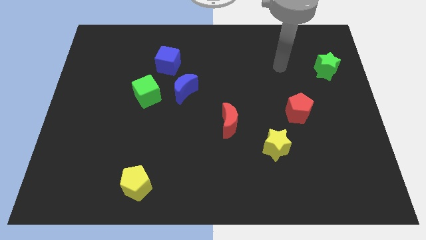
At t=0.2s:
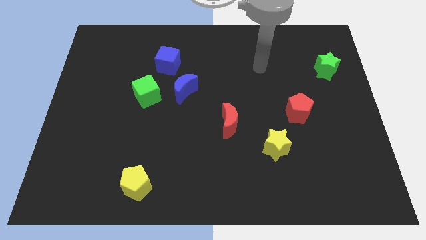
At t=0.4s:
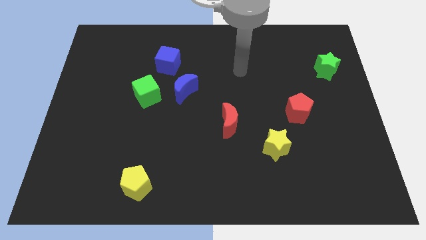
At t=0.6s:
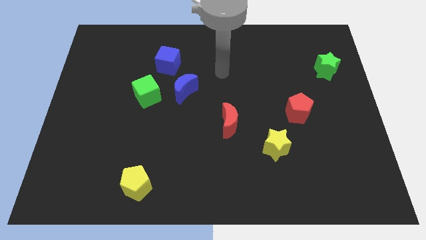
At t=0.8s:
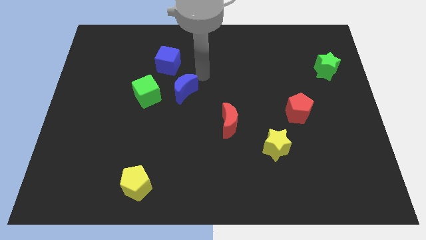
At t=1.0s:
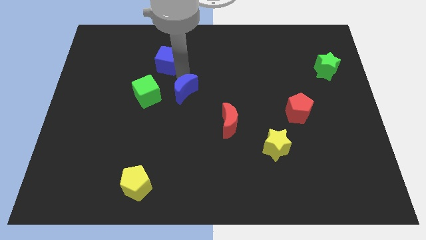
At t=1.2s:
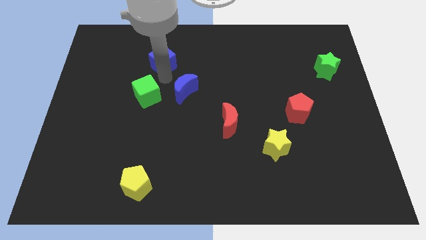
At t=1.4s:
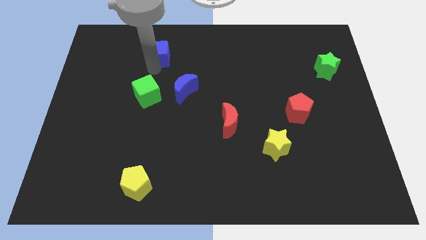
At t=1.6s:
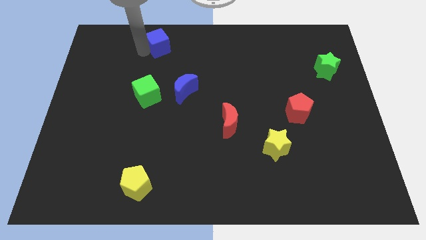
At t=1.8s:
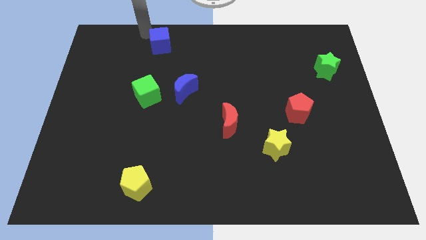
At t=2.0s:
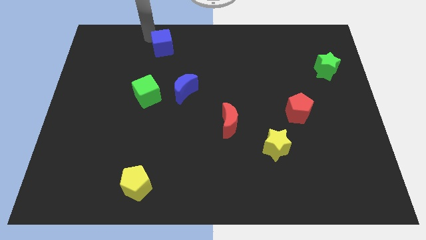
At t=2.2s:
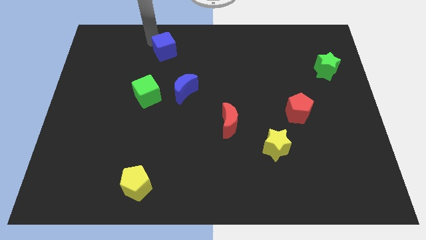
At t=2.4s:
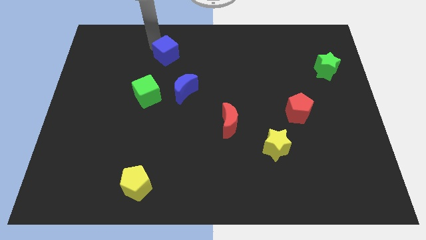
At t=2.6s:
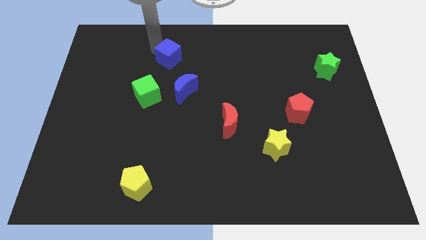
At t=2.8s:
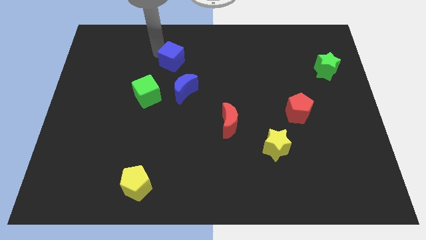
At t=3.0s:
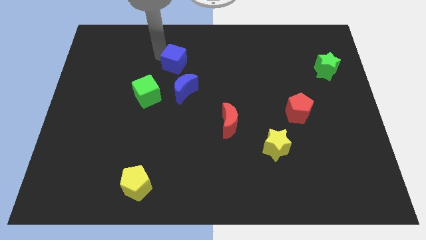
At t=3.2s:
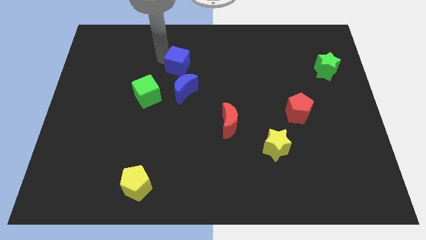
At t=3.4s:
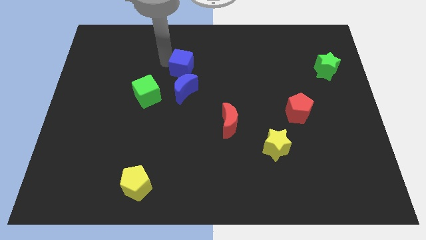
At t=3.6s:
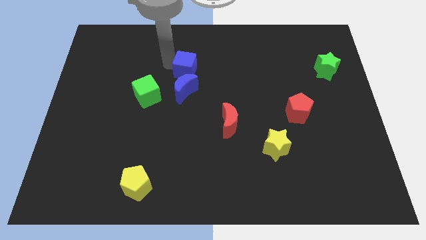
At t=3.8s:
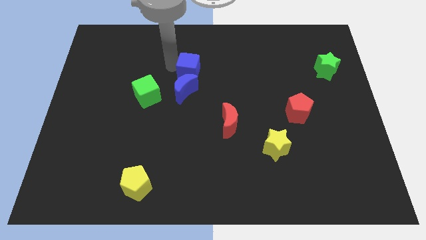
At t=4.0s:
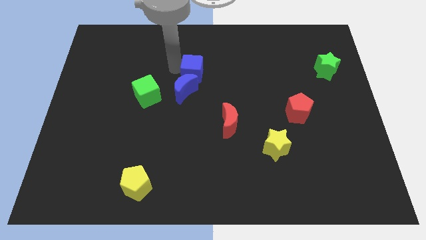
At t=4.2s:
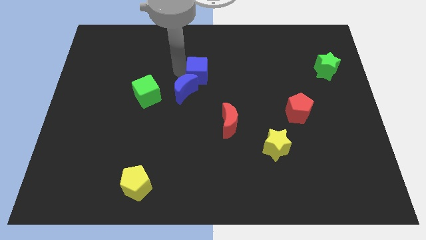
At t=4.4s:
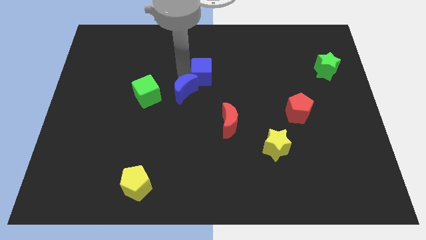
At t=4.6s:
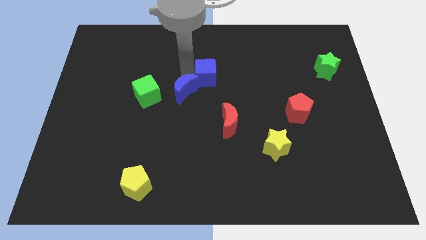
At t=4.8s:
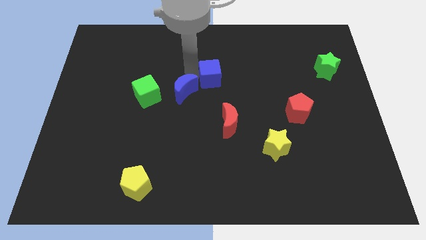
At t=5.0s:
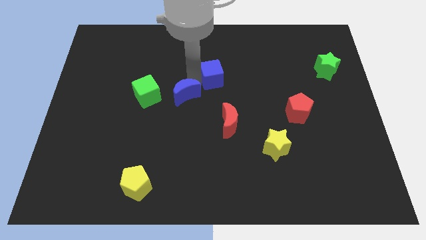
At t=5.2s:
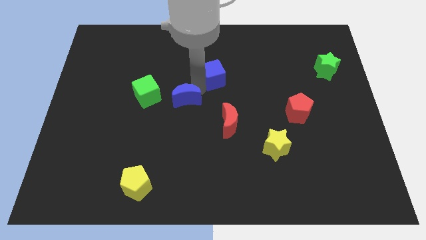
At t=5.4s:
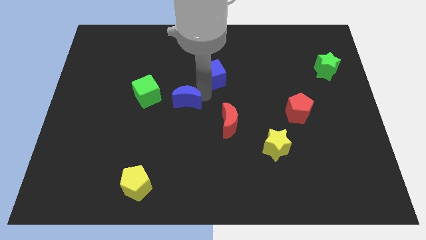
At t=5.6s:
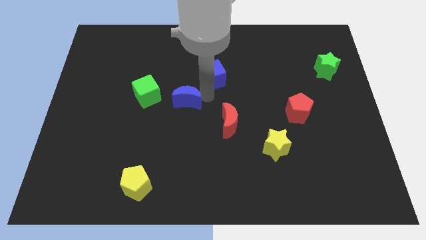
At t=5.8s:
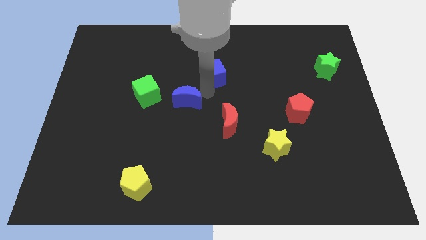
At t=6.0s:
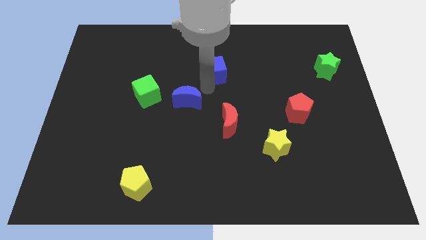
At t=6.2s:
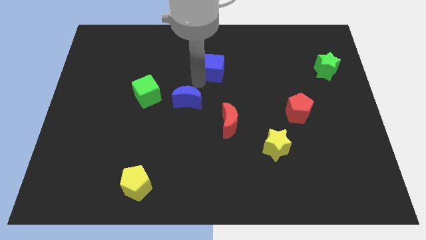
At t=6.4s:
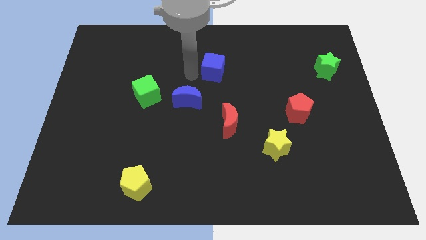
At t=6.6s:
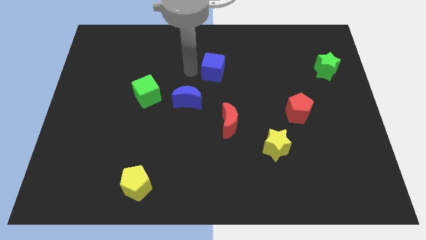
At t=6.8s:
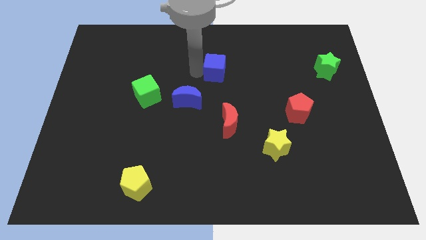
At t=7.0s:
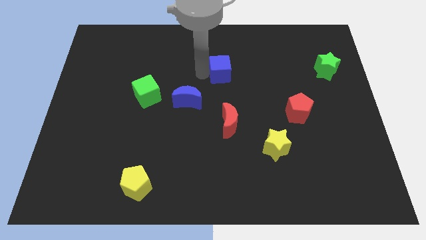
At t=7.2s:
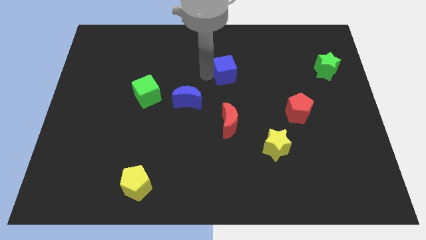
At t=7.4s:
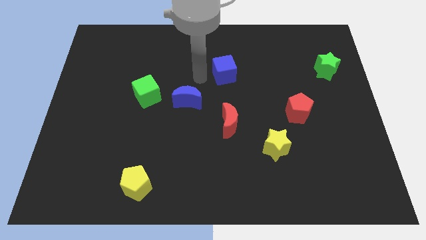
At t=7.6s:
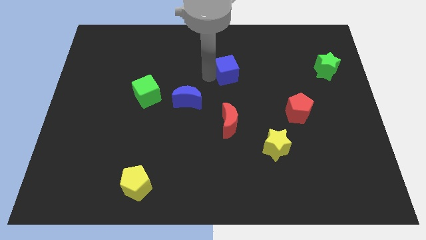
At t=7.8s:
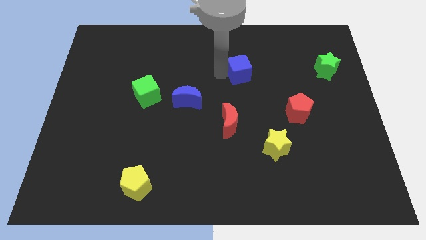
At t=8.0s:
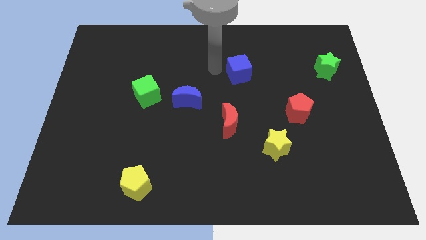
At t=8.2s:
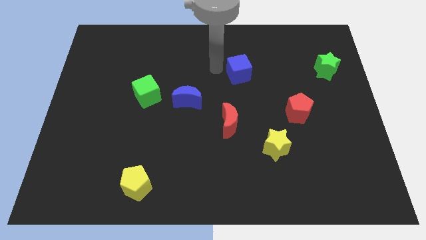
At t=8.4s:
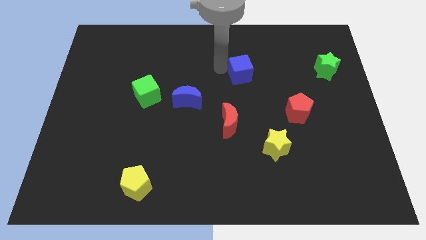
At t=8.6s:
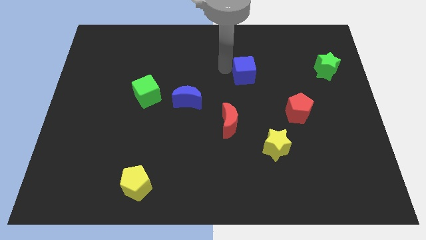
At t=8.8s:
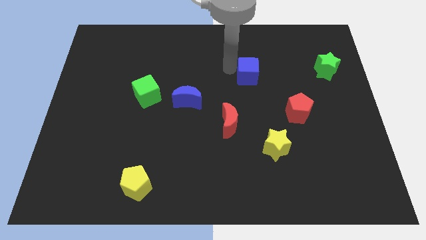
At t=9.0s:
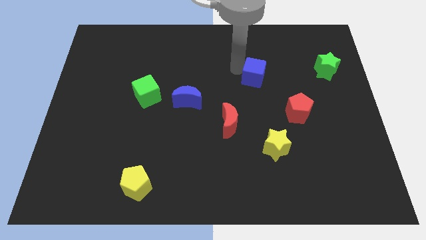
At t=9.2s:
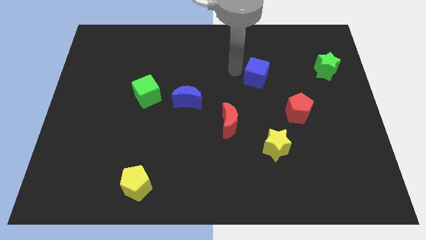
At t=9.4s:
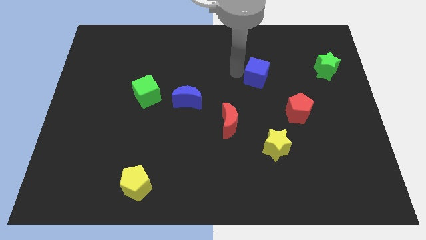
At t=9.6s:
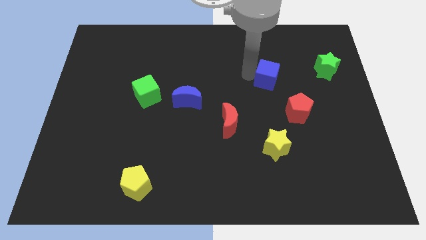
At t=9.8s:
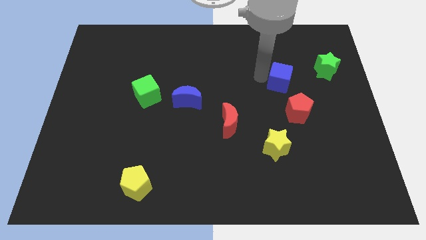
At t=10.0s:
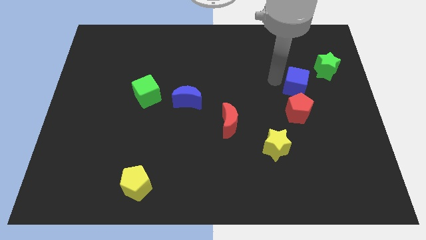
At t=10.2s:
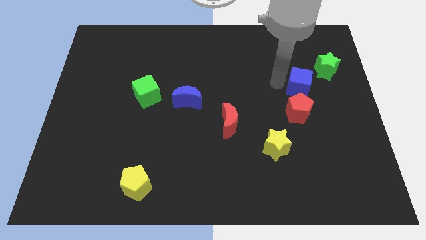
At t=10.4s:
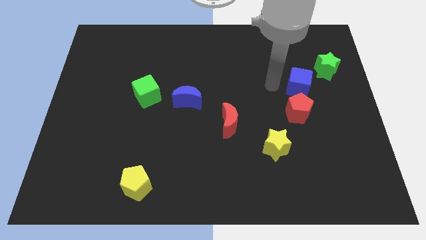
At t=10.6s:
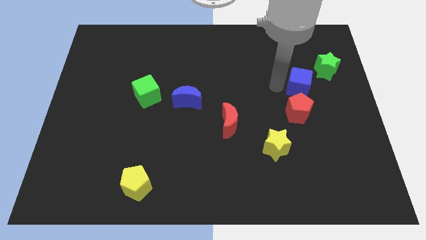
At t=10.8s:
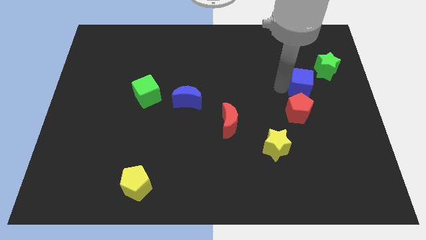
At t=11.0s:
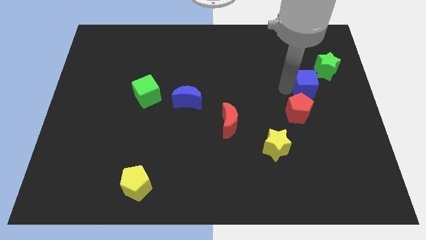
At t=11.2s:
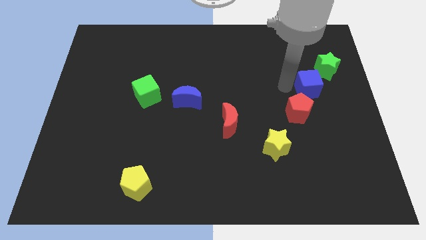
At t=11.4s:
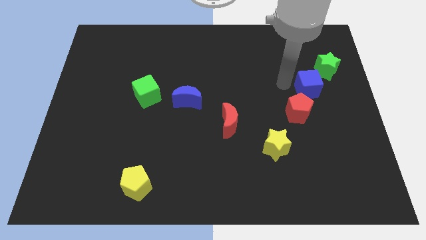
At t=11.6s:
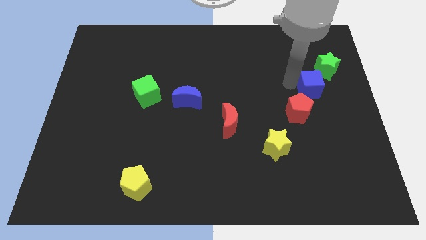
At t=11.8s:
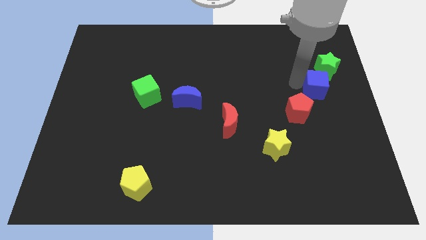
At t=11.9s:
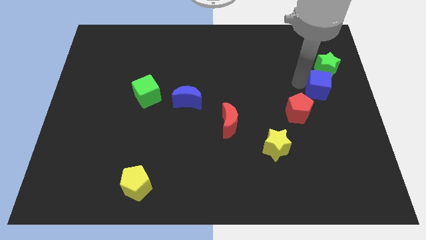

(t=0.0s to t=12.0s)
slide the blue cube to the right side of the board

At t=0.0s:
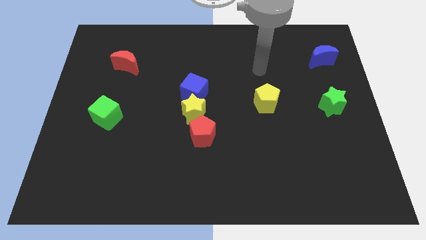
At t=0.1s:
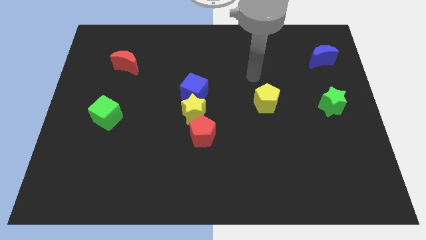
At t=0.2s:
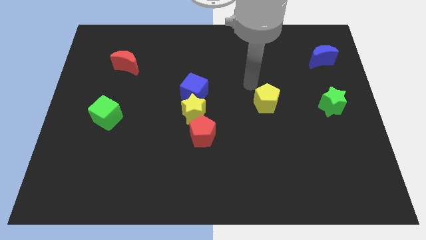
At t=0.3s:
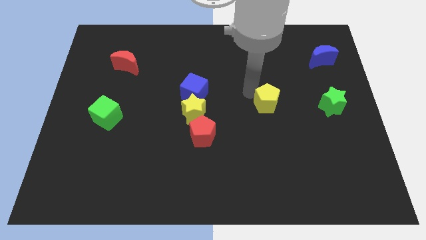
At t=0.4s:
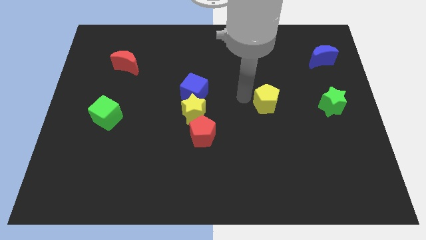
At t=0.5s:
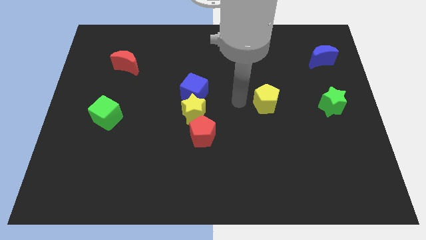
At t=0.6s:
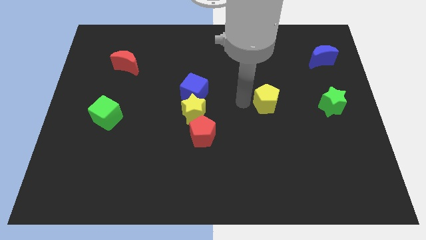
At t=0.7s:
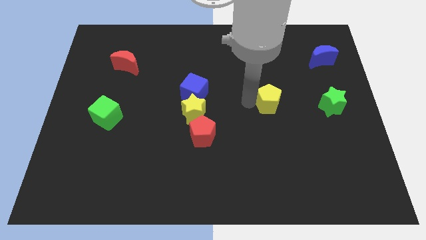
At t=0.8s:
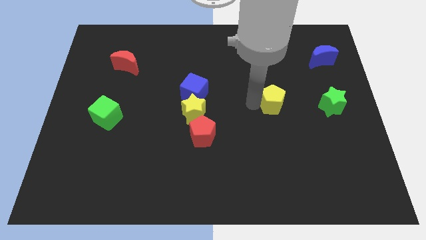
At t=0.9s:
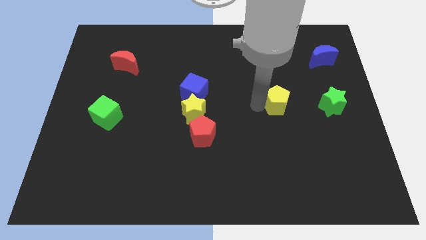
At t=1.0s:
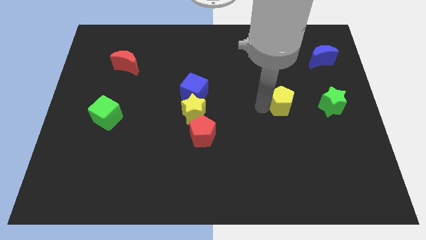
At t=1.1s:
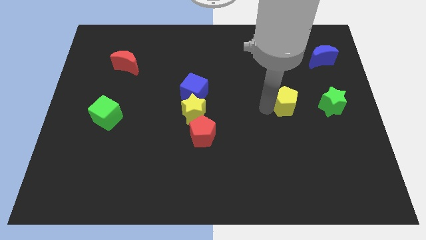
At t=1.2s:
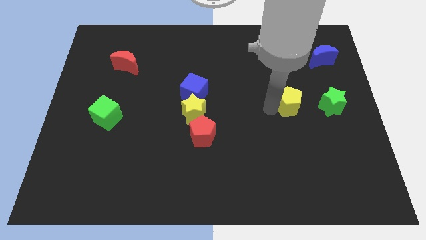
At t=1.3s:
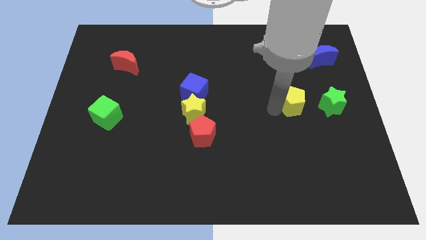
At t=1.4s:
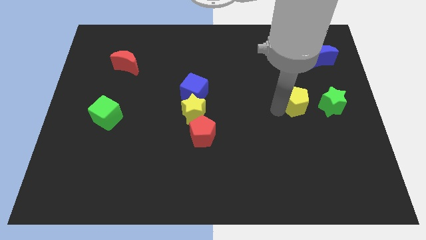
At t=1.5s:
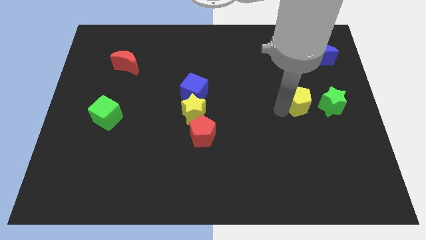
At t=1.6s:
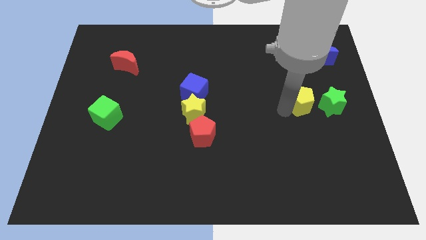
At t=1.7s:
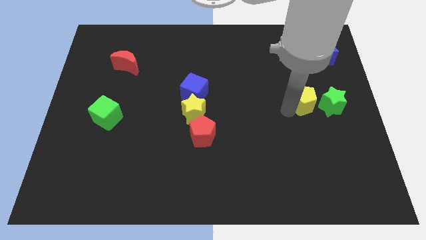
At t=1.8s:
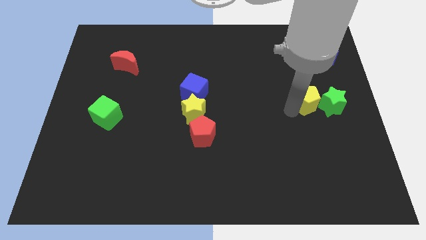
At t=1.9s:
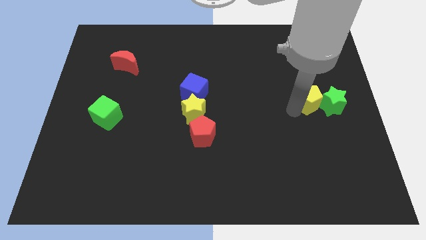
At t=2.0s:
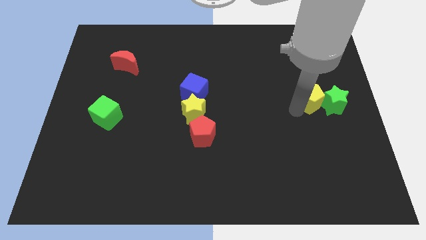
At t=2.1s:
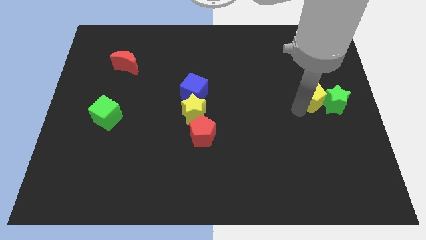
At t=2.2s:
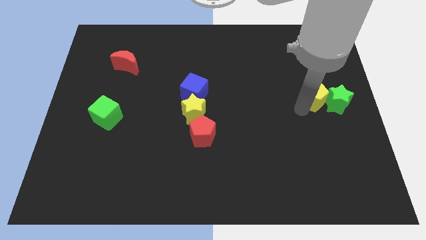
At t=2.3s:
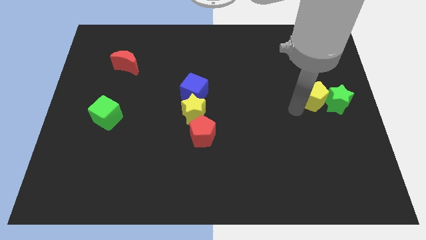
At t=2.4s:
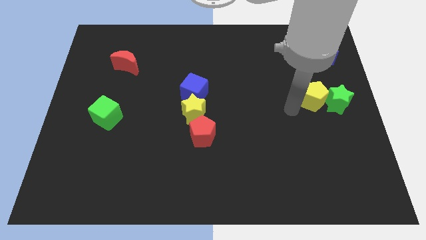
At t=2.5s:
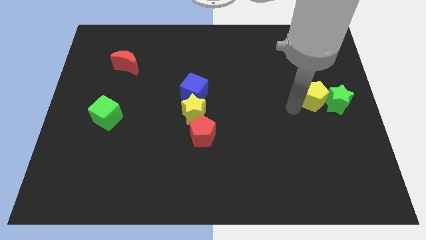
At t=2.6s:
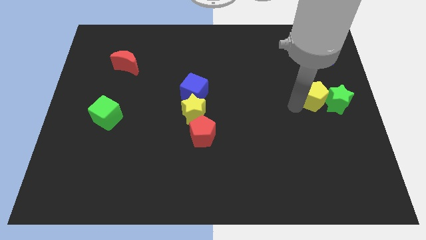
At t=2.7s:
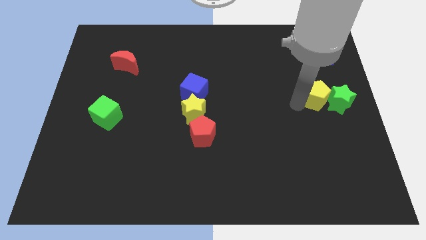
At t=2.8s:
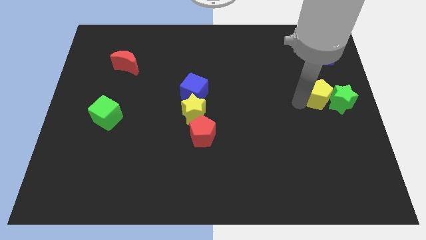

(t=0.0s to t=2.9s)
slide the yellow pentagon to the right side of the board
